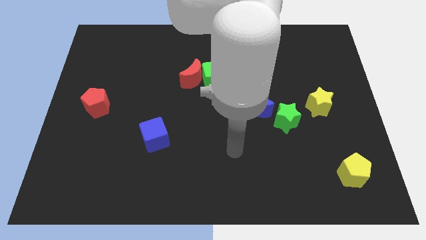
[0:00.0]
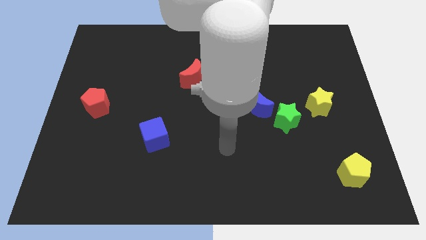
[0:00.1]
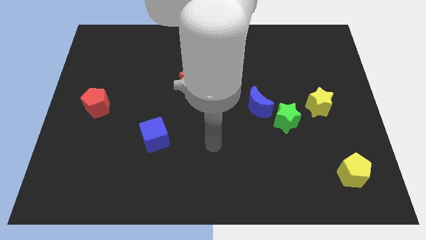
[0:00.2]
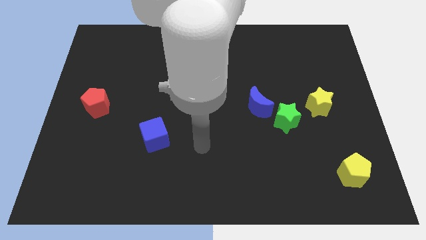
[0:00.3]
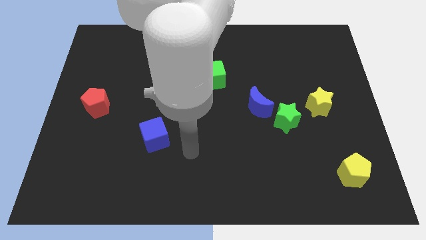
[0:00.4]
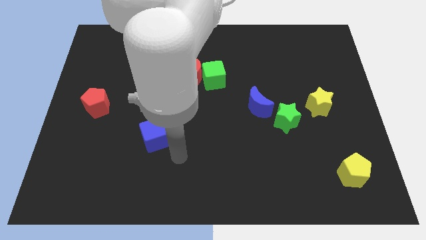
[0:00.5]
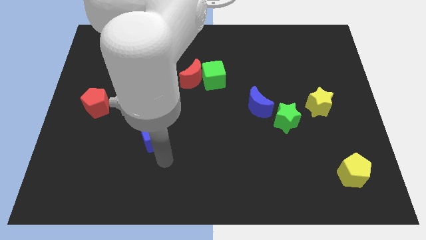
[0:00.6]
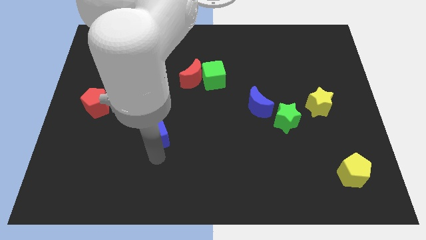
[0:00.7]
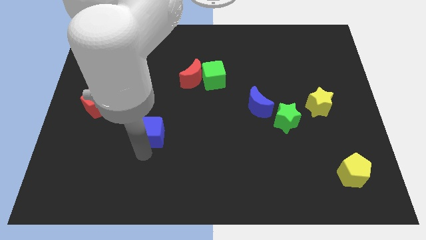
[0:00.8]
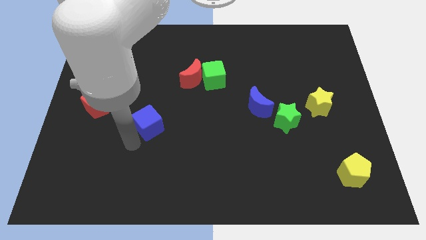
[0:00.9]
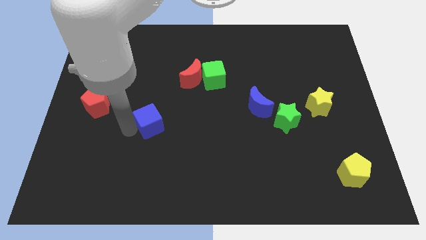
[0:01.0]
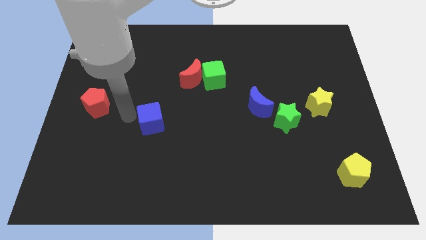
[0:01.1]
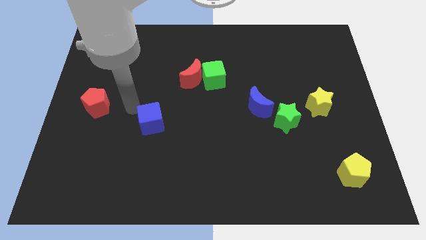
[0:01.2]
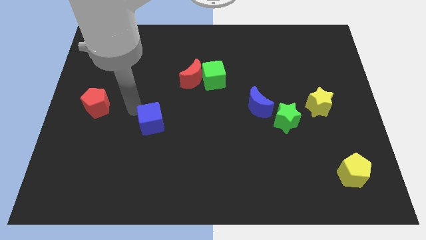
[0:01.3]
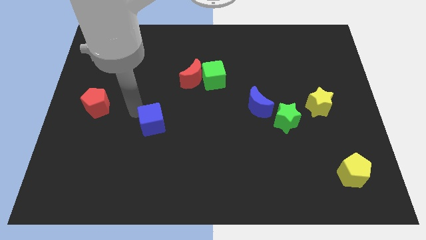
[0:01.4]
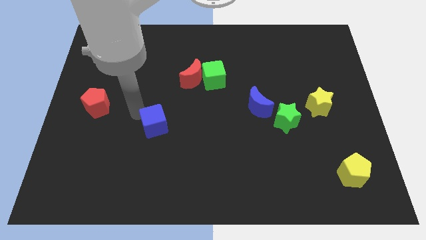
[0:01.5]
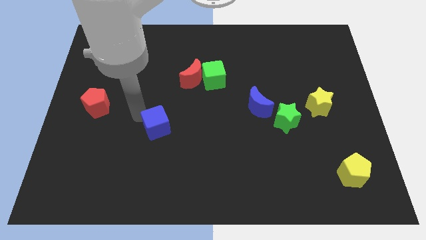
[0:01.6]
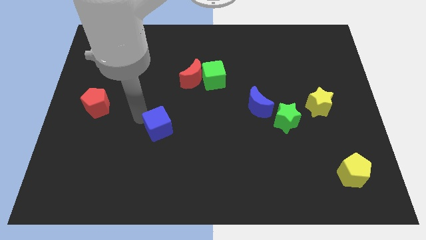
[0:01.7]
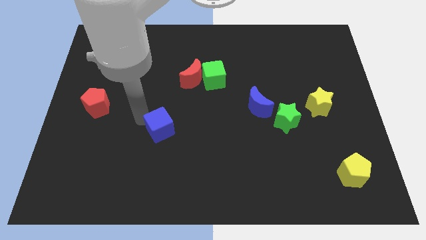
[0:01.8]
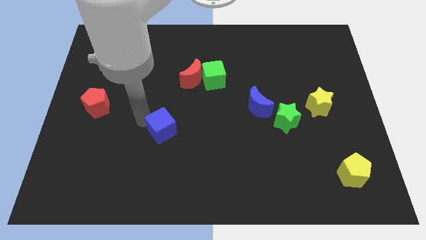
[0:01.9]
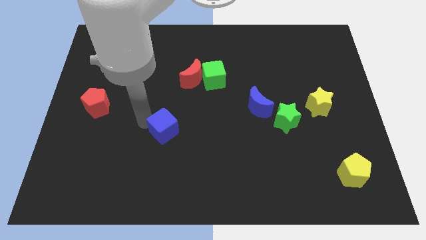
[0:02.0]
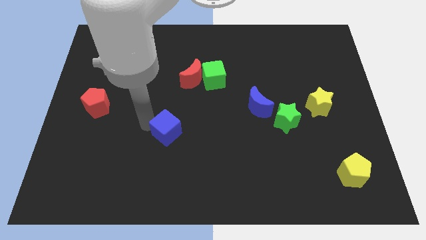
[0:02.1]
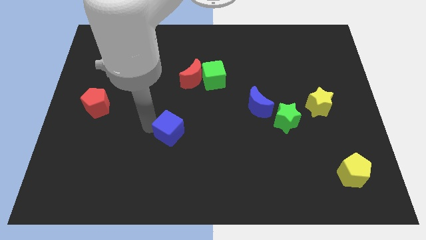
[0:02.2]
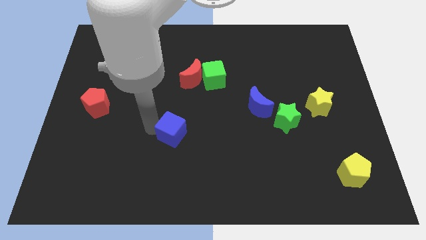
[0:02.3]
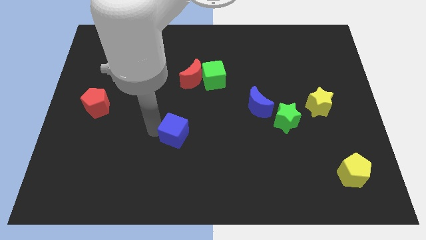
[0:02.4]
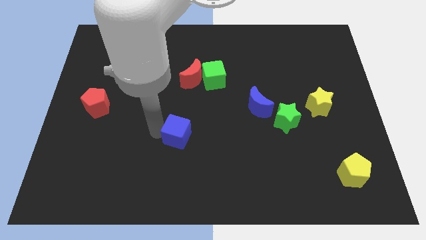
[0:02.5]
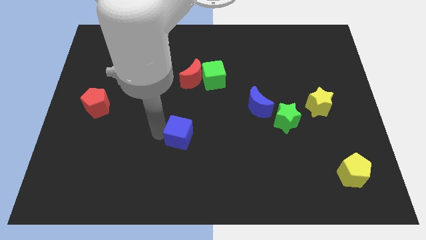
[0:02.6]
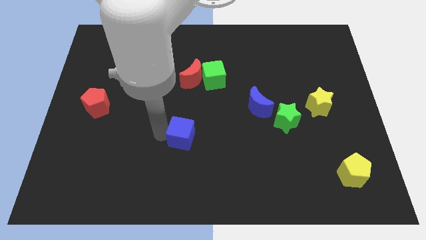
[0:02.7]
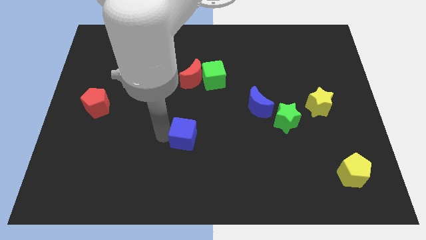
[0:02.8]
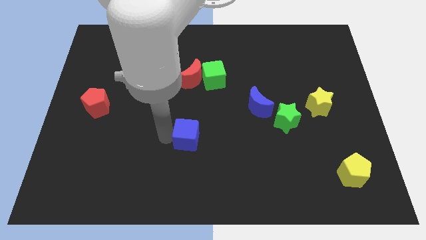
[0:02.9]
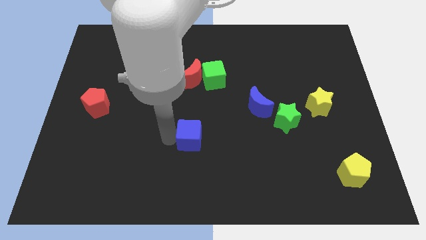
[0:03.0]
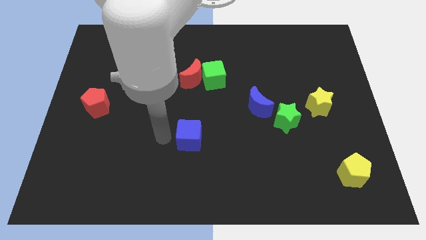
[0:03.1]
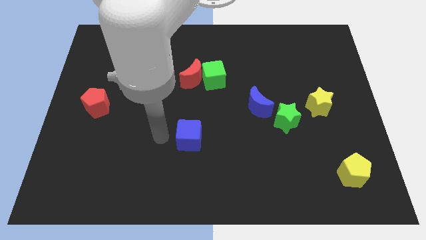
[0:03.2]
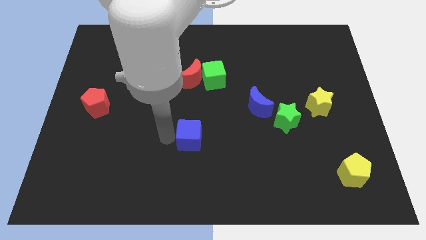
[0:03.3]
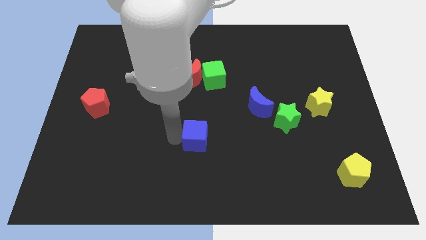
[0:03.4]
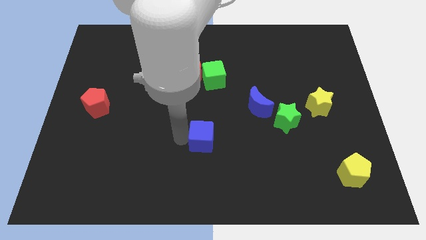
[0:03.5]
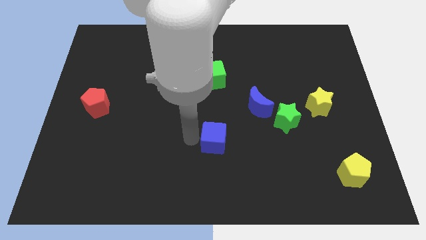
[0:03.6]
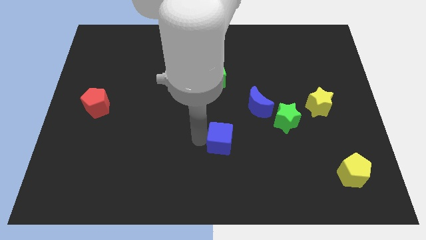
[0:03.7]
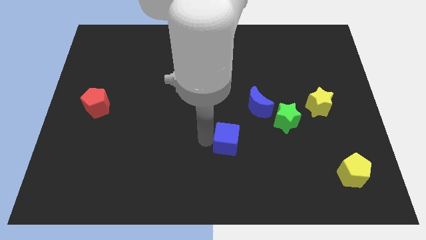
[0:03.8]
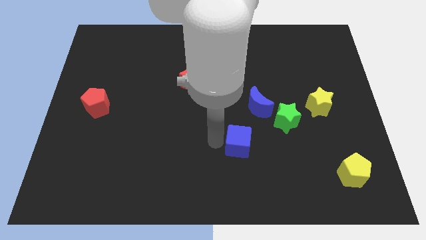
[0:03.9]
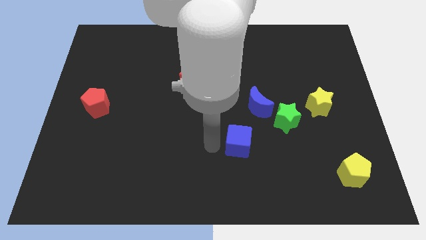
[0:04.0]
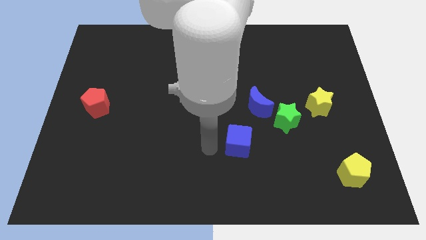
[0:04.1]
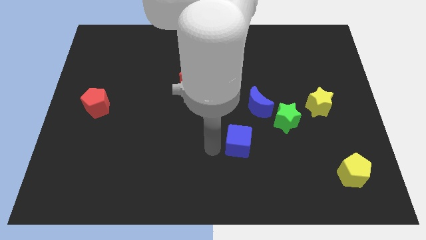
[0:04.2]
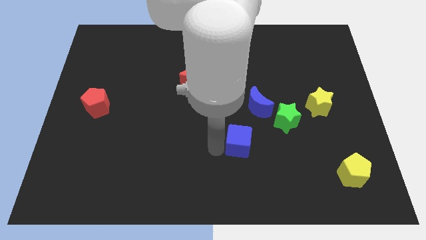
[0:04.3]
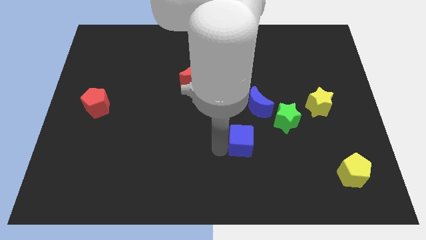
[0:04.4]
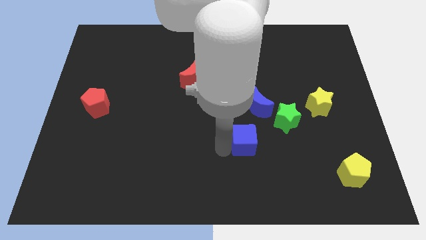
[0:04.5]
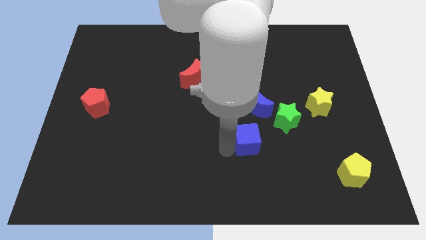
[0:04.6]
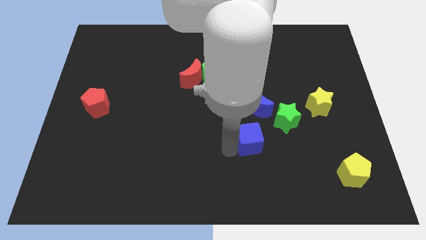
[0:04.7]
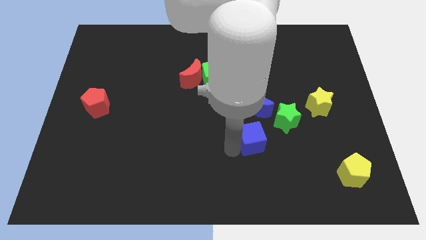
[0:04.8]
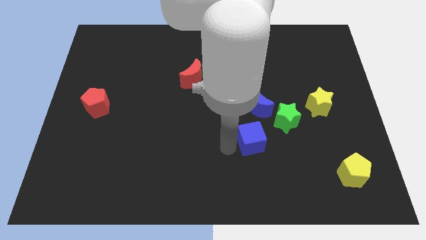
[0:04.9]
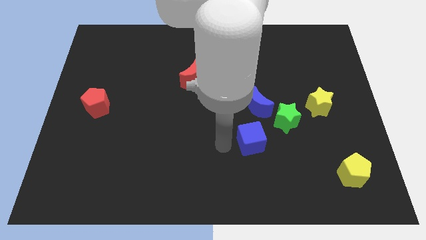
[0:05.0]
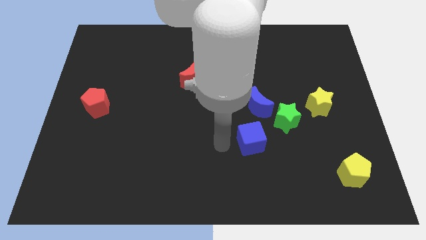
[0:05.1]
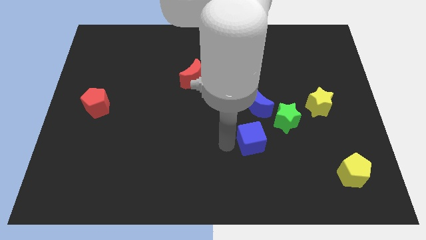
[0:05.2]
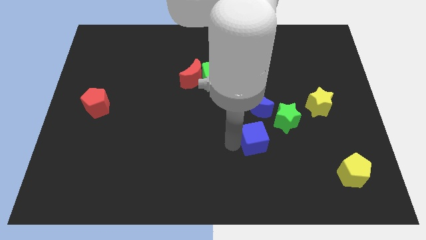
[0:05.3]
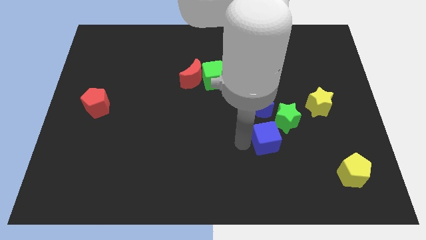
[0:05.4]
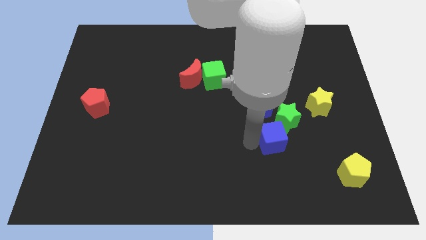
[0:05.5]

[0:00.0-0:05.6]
push the blue cube to the bottom right of the blue moon

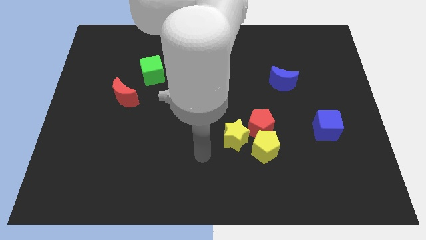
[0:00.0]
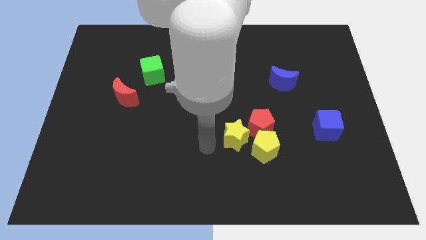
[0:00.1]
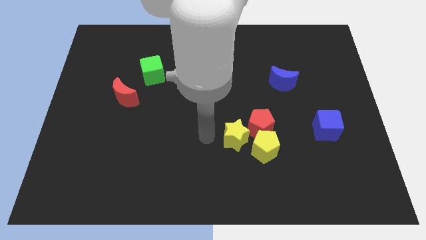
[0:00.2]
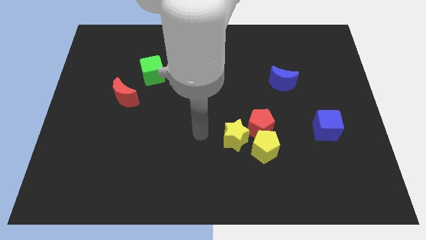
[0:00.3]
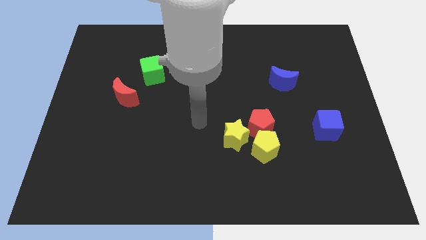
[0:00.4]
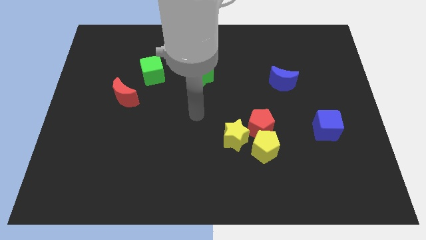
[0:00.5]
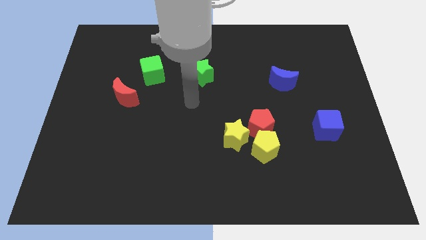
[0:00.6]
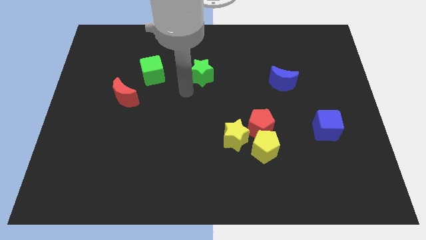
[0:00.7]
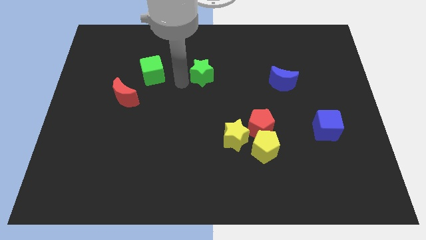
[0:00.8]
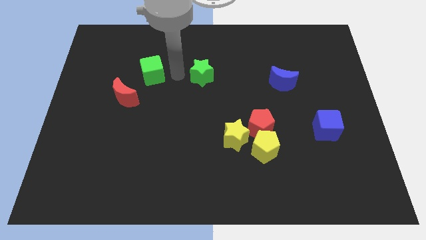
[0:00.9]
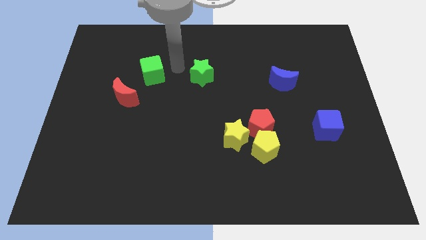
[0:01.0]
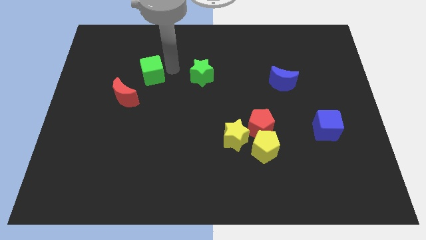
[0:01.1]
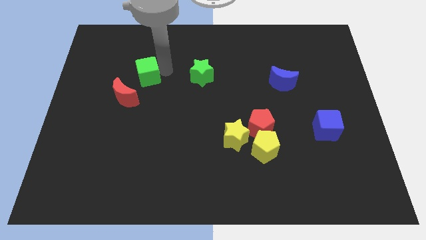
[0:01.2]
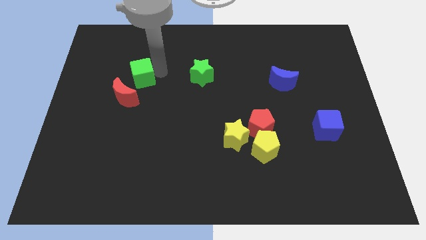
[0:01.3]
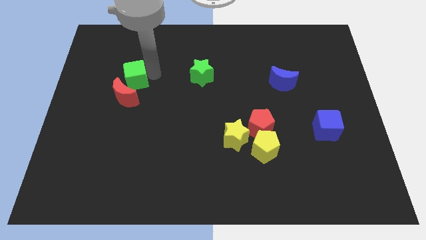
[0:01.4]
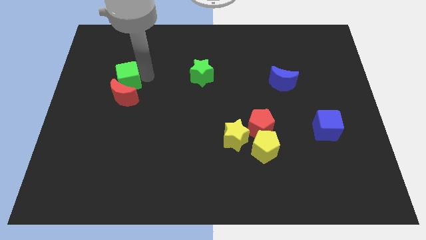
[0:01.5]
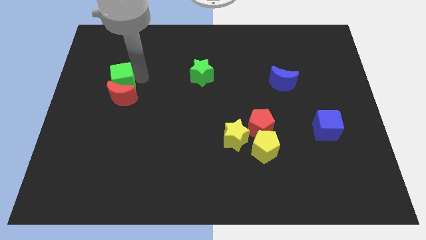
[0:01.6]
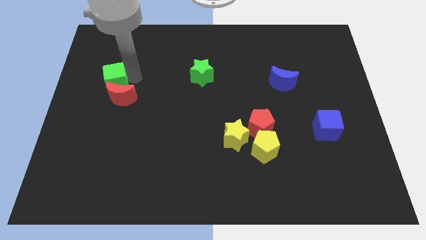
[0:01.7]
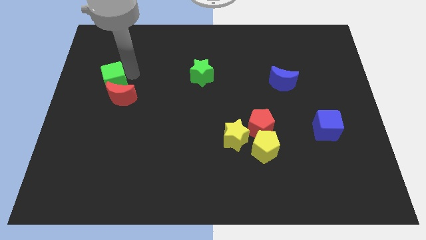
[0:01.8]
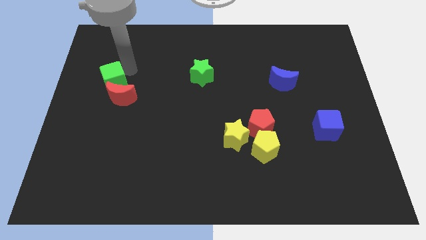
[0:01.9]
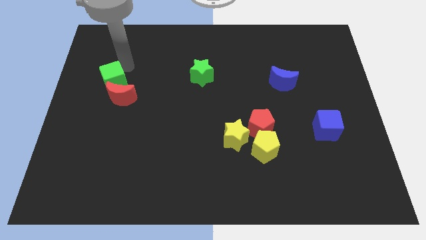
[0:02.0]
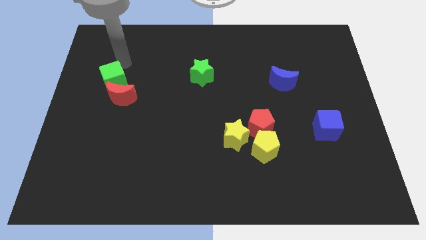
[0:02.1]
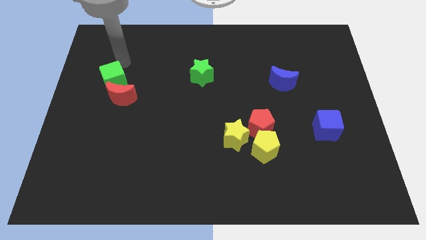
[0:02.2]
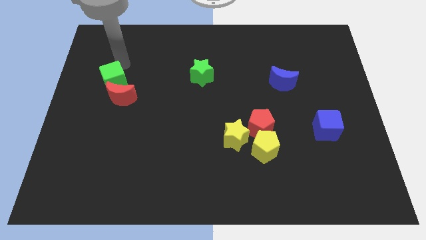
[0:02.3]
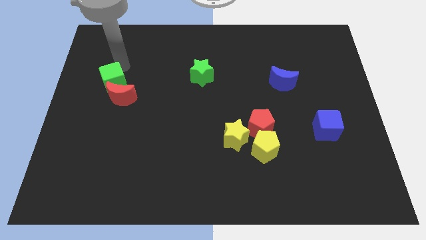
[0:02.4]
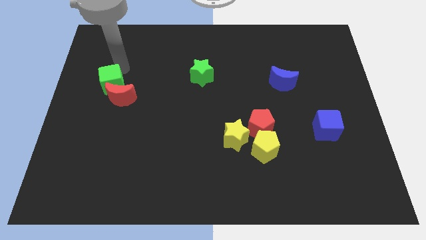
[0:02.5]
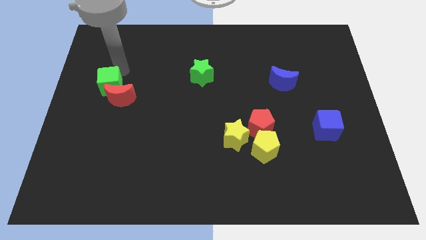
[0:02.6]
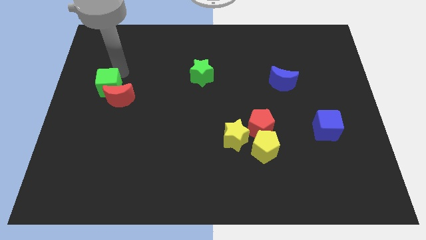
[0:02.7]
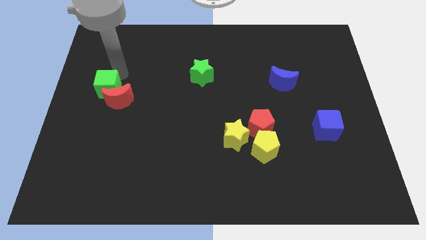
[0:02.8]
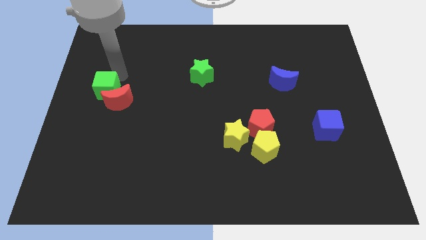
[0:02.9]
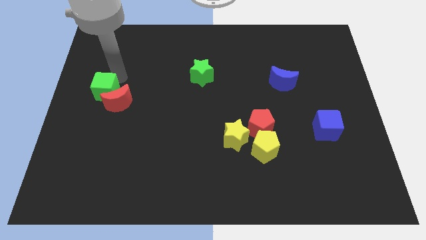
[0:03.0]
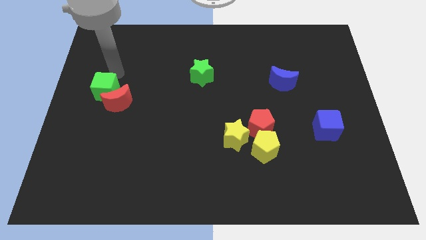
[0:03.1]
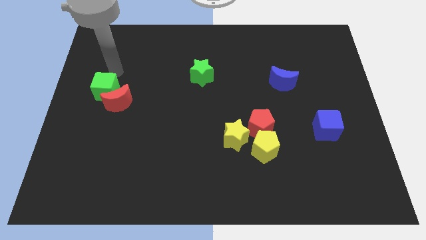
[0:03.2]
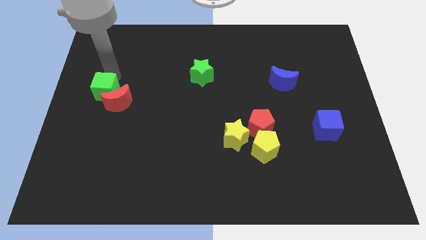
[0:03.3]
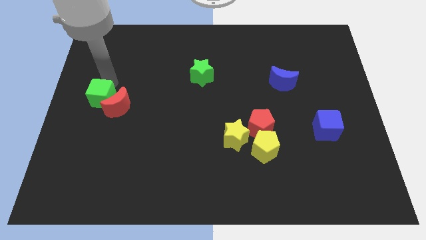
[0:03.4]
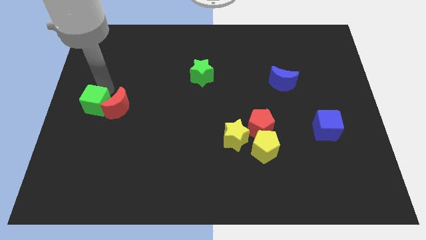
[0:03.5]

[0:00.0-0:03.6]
move the green cube to the bottom left side of the red moon
